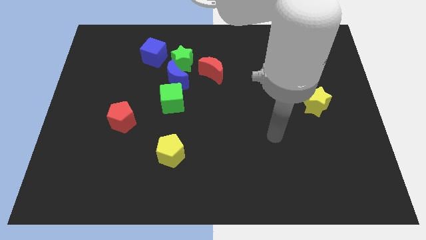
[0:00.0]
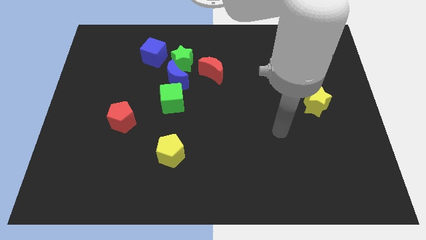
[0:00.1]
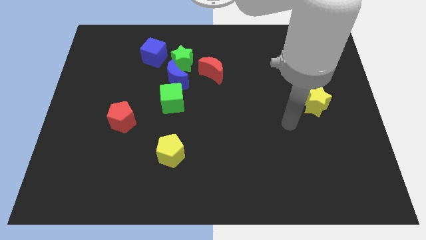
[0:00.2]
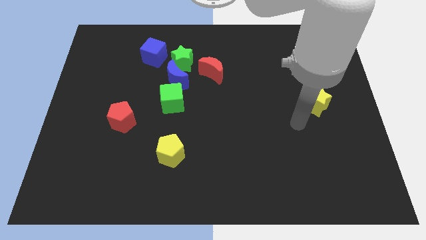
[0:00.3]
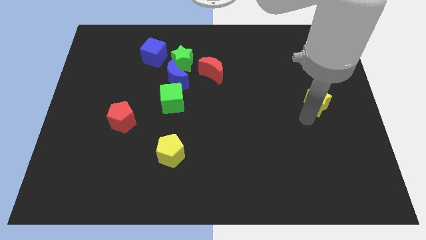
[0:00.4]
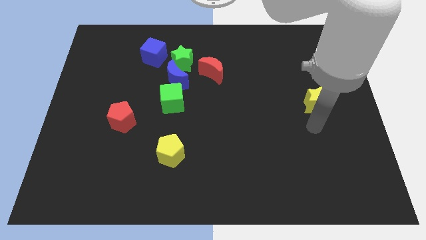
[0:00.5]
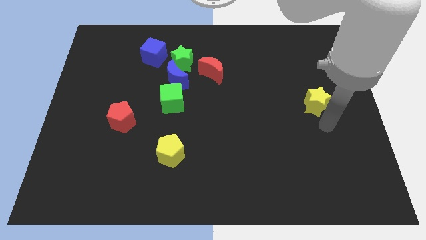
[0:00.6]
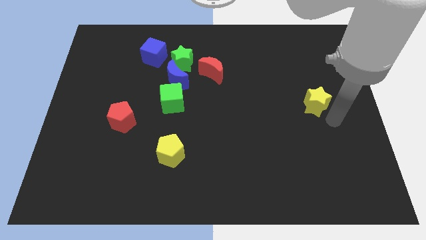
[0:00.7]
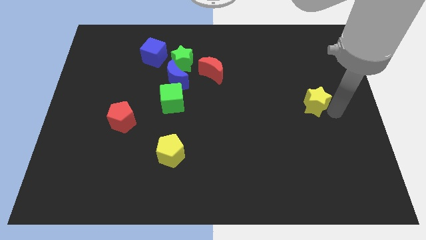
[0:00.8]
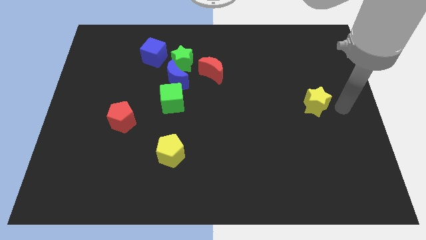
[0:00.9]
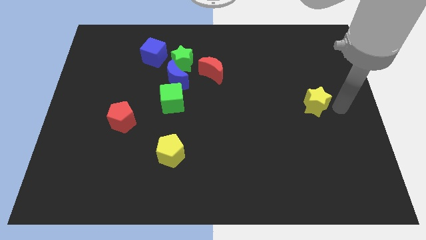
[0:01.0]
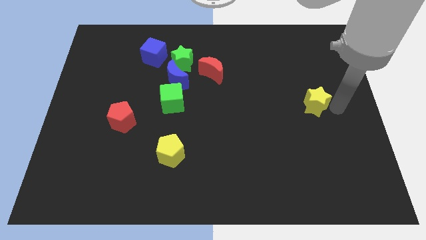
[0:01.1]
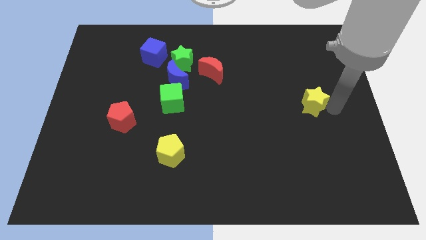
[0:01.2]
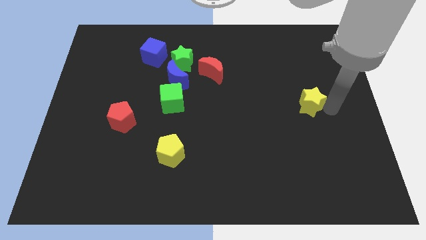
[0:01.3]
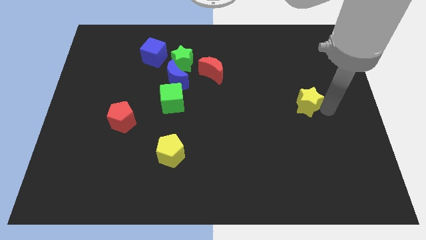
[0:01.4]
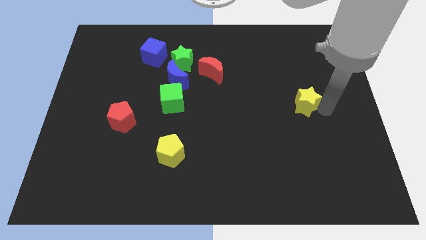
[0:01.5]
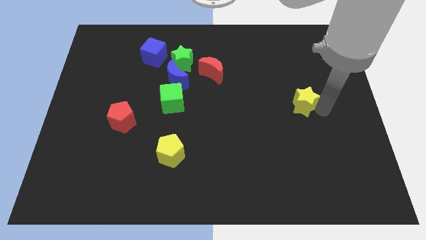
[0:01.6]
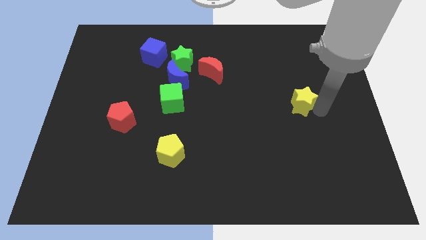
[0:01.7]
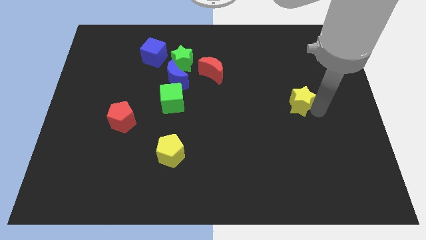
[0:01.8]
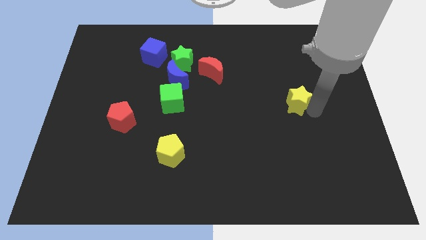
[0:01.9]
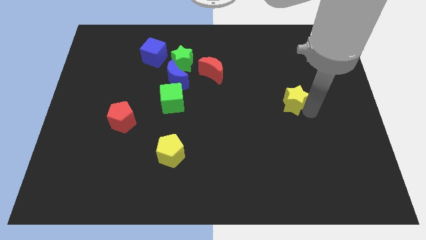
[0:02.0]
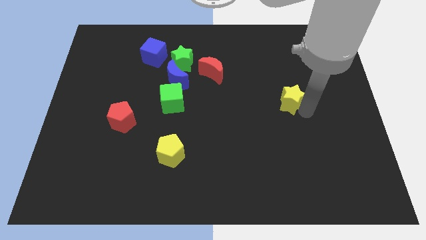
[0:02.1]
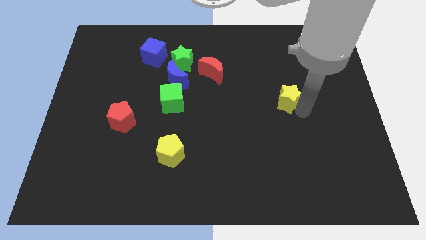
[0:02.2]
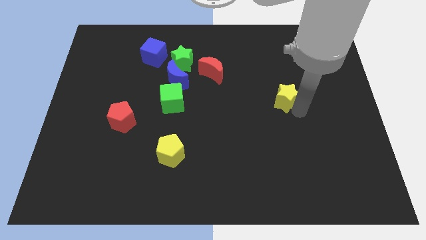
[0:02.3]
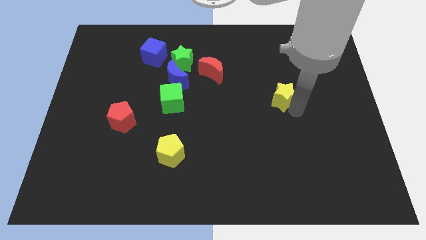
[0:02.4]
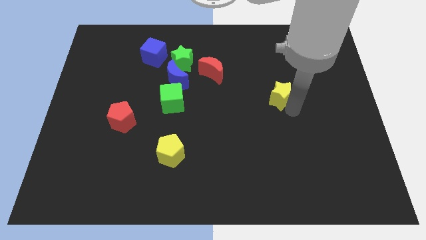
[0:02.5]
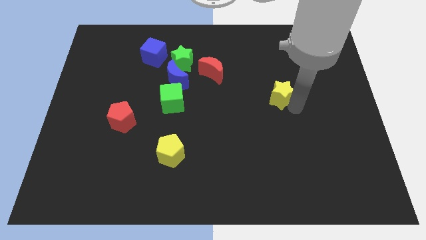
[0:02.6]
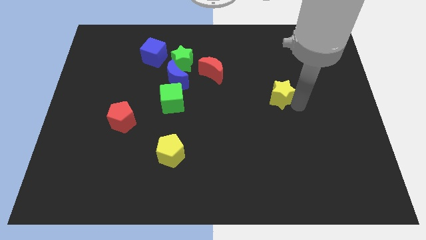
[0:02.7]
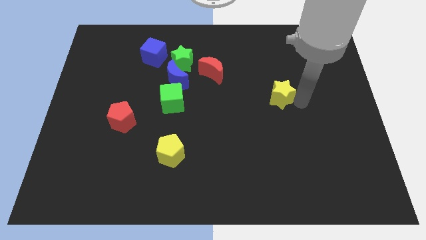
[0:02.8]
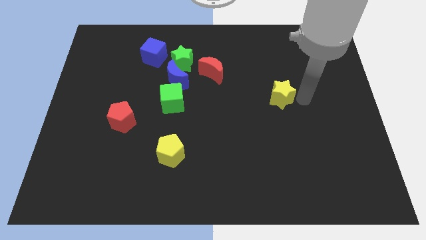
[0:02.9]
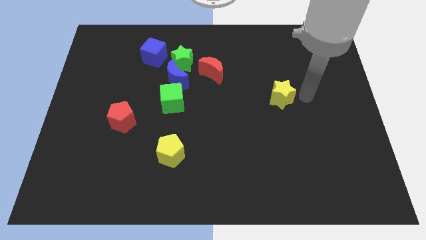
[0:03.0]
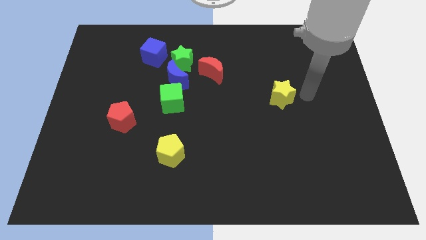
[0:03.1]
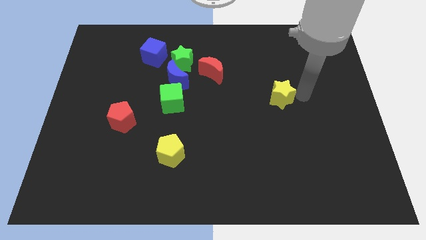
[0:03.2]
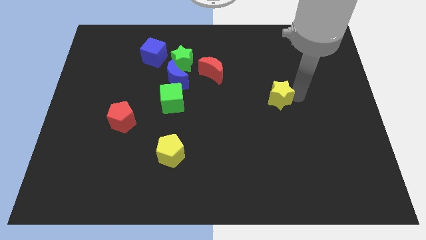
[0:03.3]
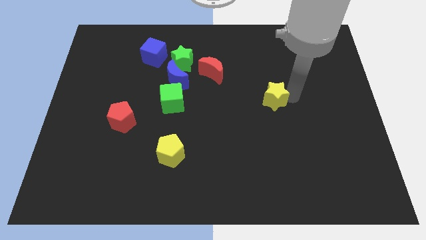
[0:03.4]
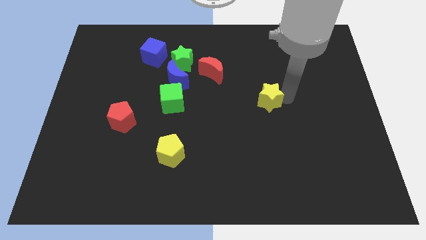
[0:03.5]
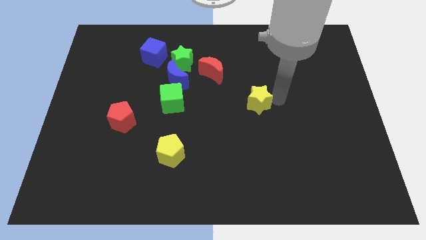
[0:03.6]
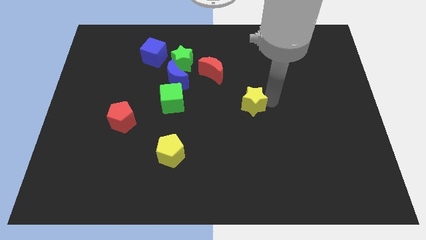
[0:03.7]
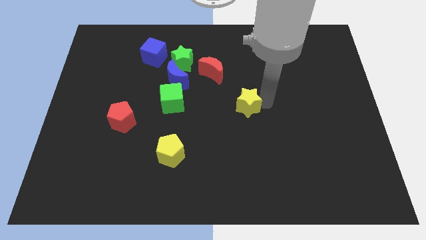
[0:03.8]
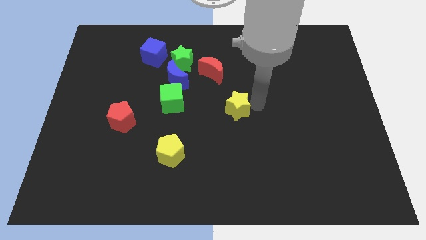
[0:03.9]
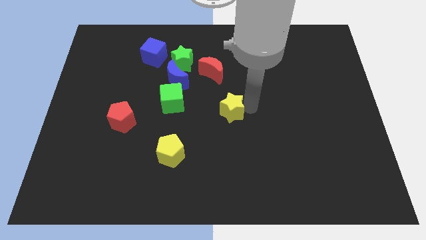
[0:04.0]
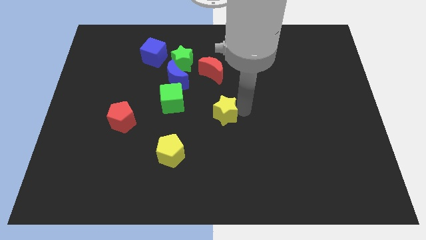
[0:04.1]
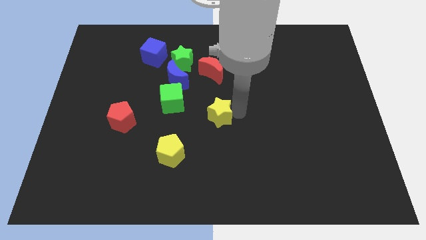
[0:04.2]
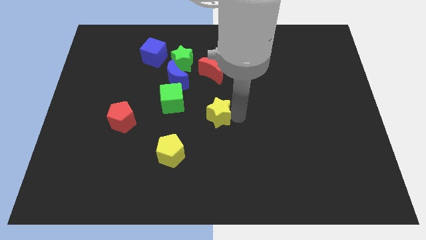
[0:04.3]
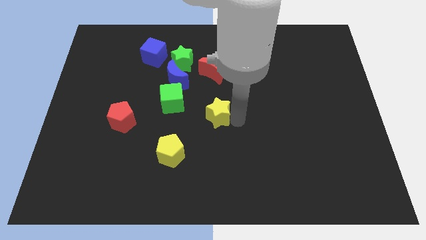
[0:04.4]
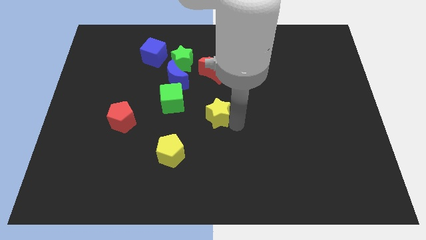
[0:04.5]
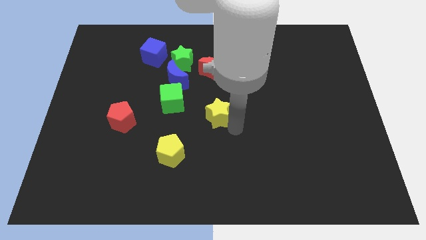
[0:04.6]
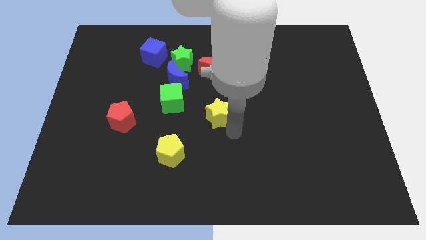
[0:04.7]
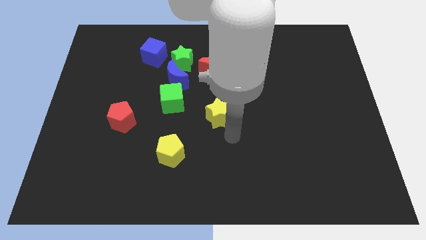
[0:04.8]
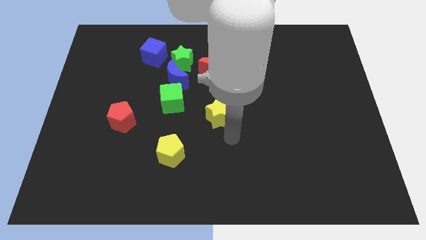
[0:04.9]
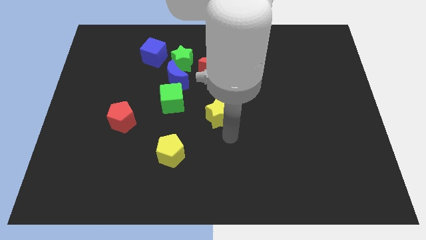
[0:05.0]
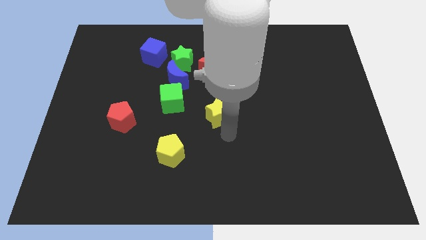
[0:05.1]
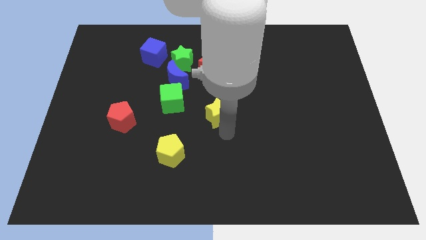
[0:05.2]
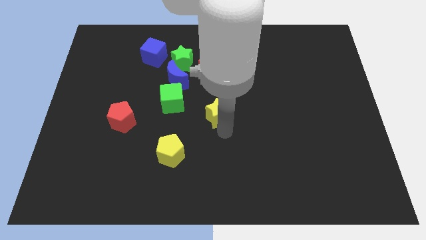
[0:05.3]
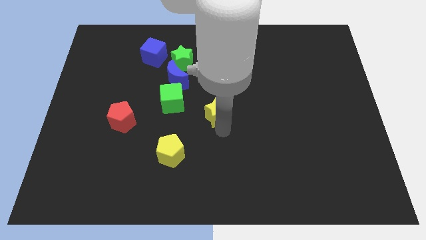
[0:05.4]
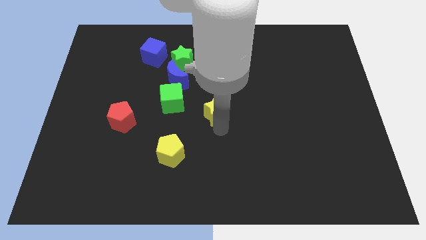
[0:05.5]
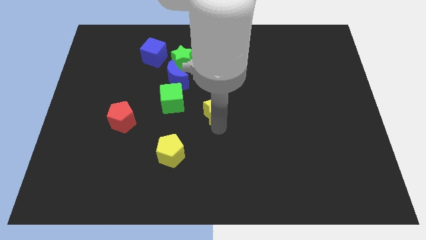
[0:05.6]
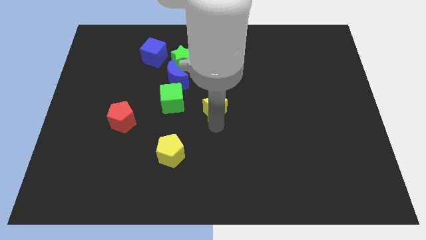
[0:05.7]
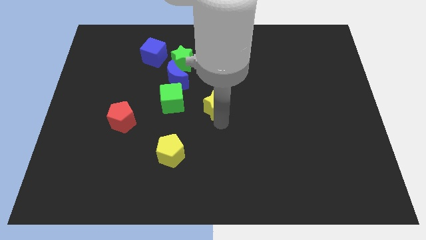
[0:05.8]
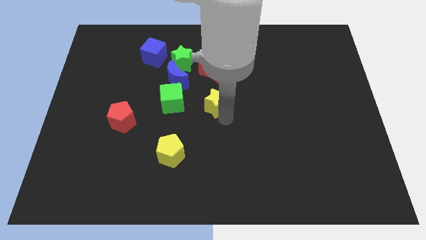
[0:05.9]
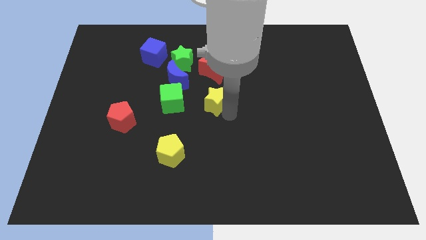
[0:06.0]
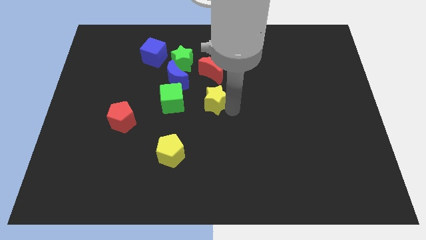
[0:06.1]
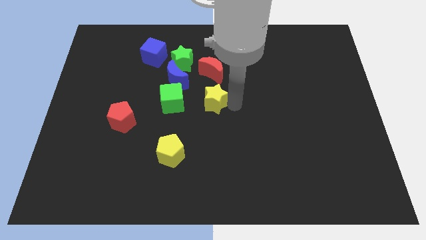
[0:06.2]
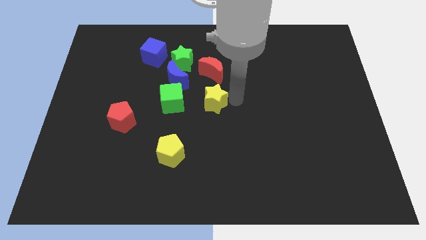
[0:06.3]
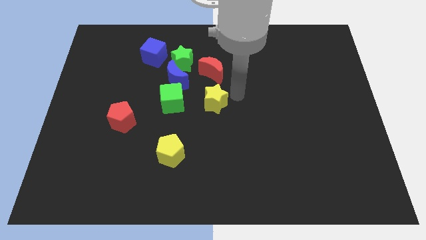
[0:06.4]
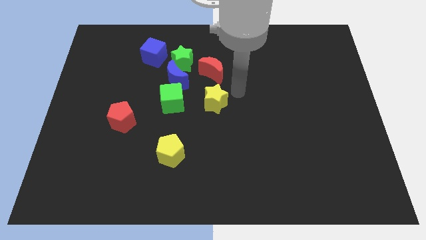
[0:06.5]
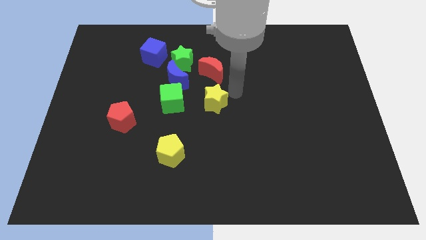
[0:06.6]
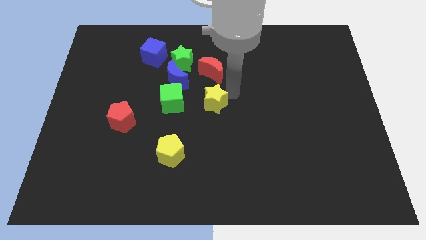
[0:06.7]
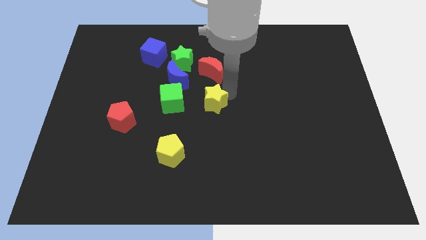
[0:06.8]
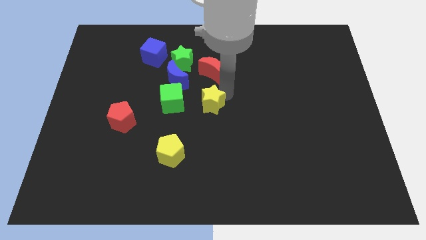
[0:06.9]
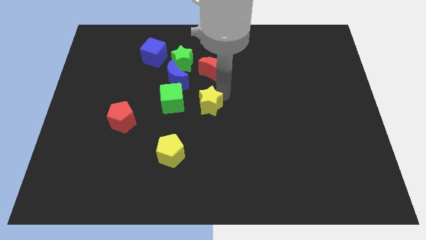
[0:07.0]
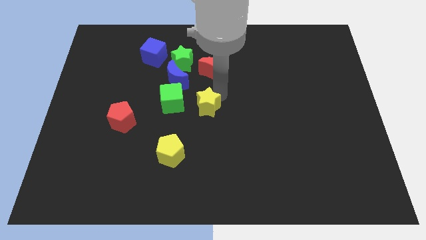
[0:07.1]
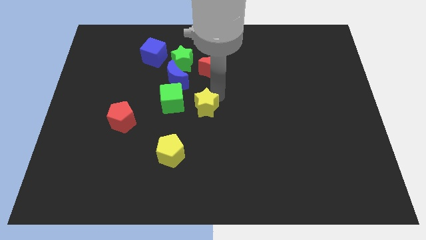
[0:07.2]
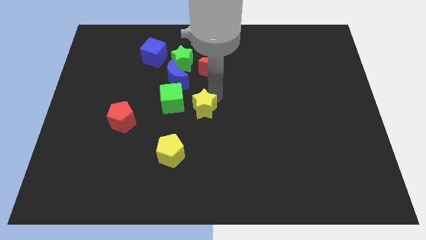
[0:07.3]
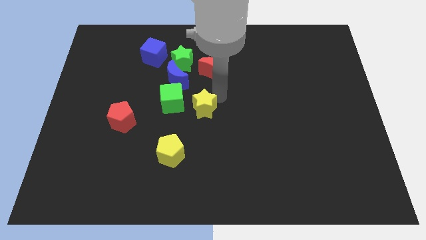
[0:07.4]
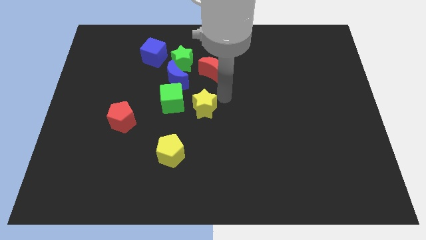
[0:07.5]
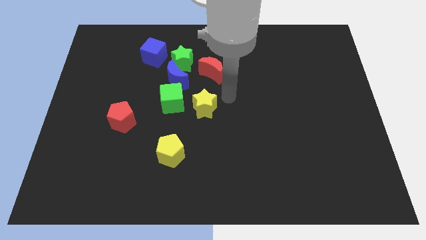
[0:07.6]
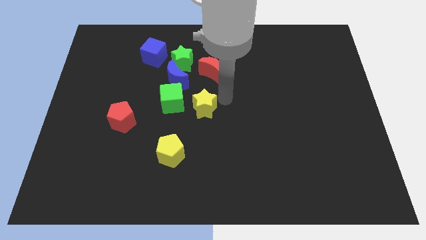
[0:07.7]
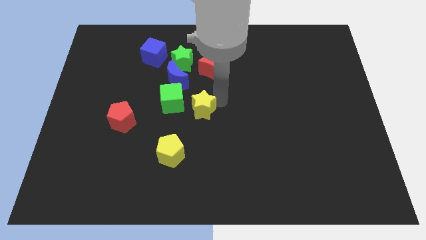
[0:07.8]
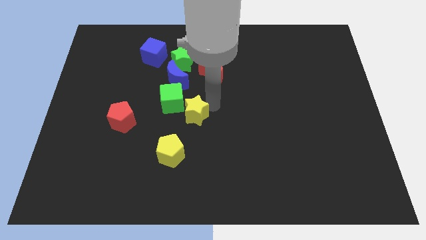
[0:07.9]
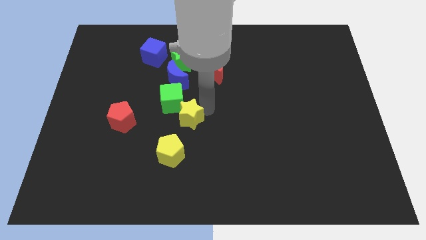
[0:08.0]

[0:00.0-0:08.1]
push the yellow star to the right of the red pentagon

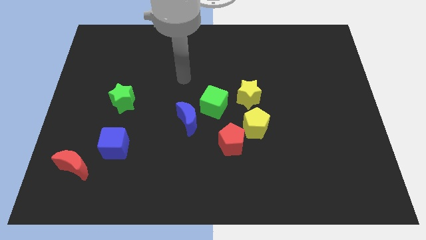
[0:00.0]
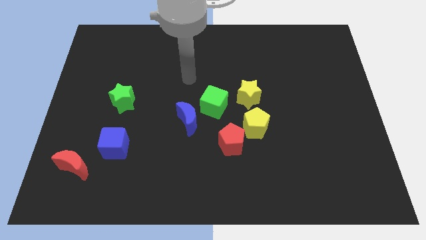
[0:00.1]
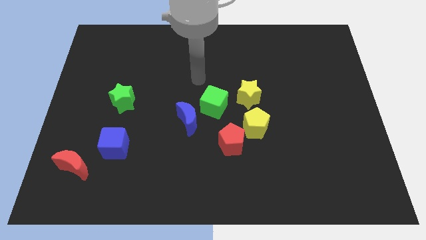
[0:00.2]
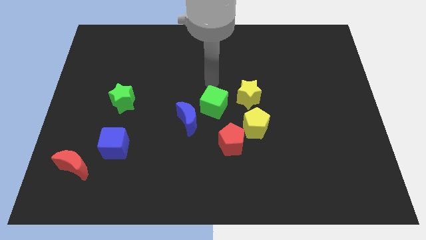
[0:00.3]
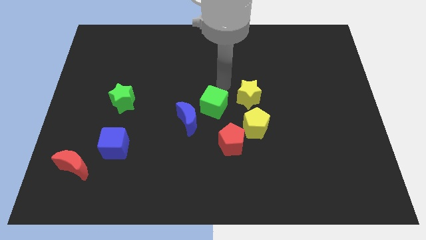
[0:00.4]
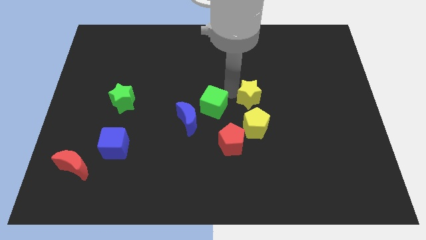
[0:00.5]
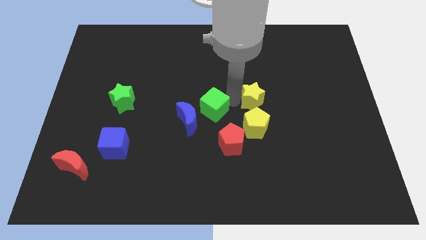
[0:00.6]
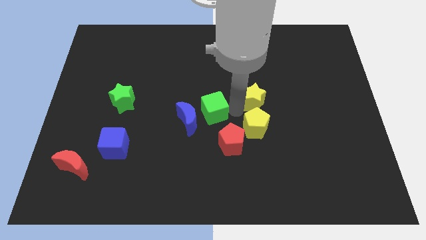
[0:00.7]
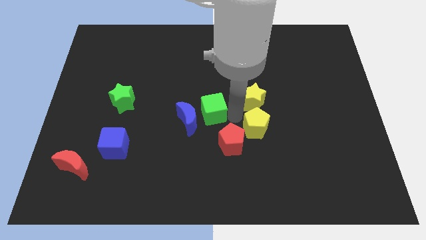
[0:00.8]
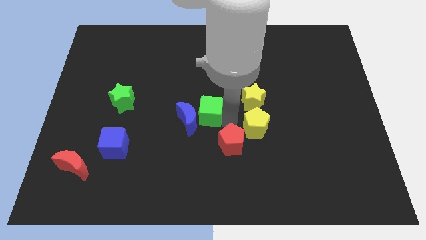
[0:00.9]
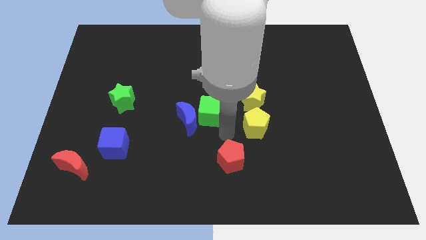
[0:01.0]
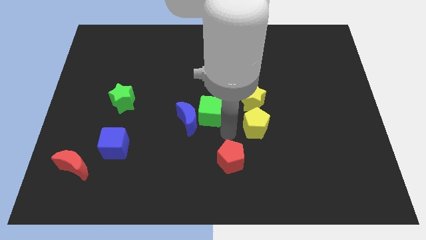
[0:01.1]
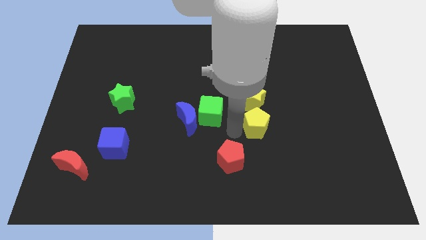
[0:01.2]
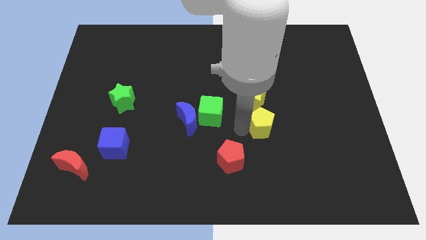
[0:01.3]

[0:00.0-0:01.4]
push the yellow pentagon to the bottom right of the yellow star
